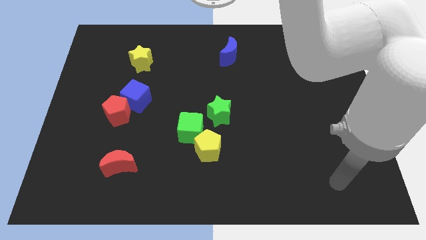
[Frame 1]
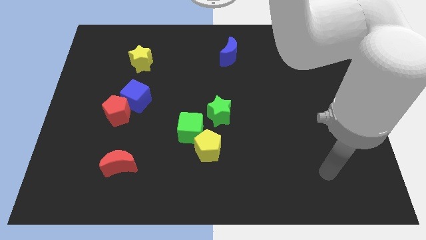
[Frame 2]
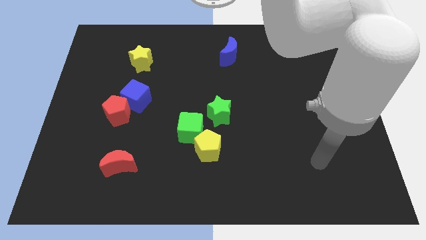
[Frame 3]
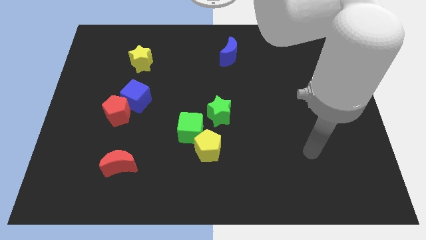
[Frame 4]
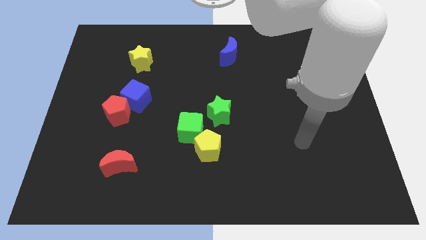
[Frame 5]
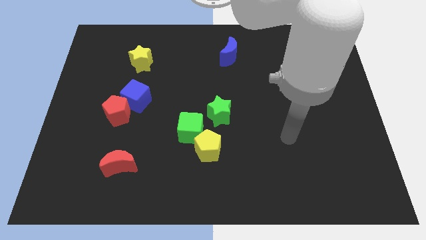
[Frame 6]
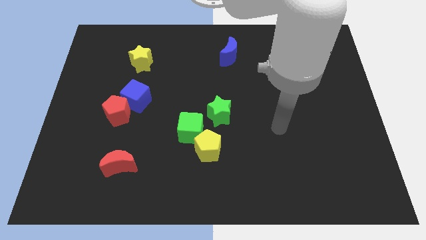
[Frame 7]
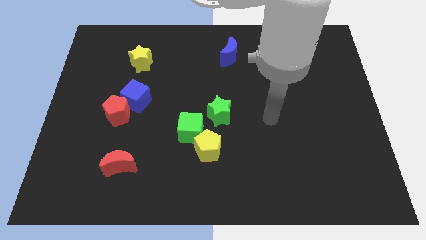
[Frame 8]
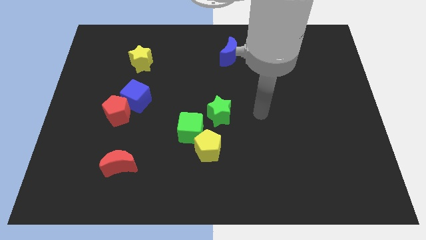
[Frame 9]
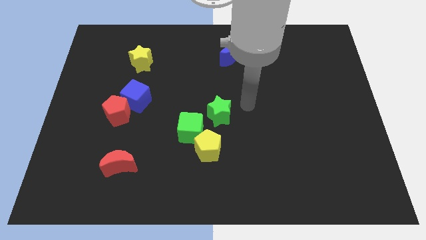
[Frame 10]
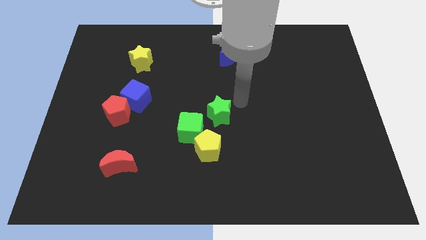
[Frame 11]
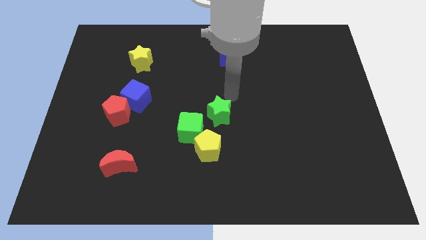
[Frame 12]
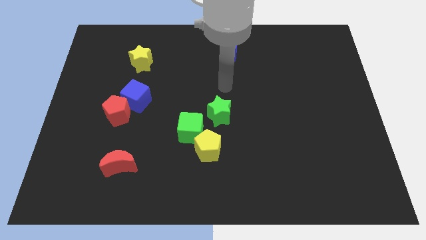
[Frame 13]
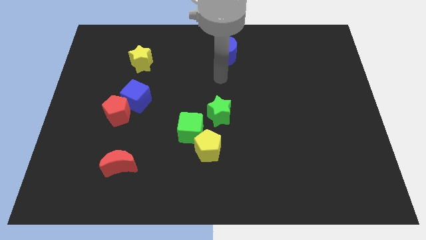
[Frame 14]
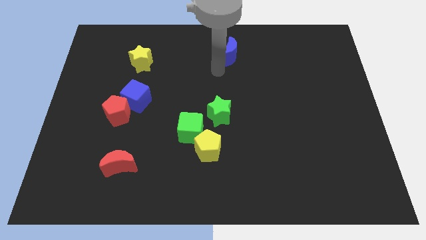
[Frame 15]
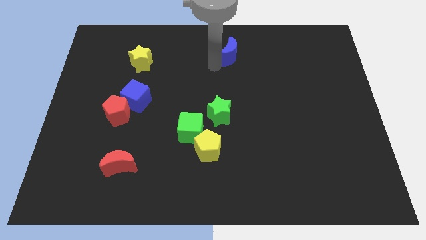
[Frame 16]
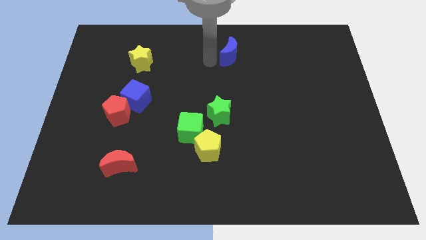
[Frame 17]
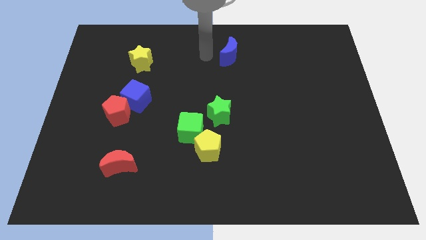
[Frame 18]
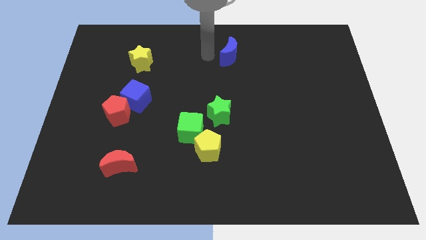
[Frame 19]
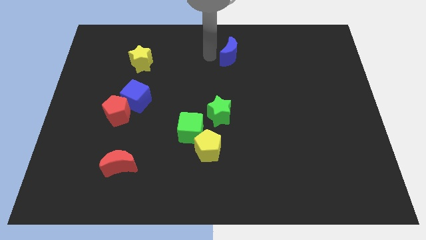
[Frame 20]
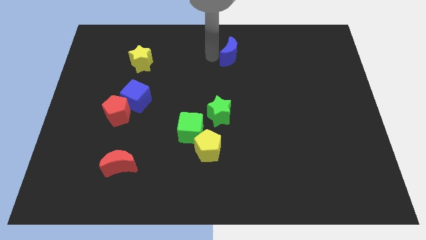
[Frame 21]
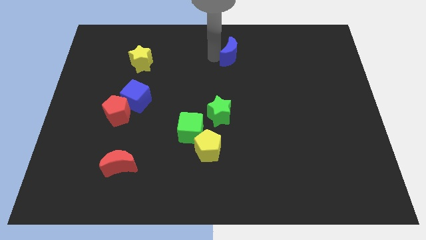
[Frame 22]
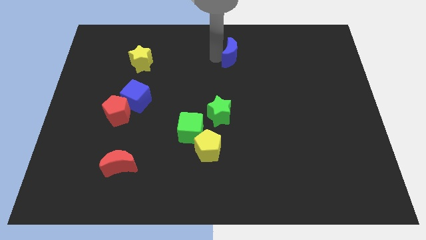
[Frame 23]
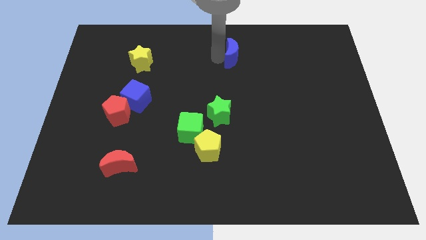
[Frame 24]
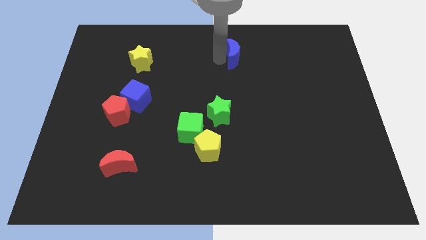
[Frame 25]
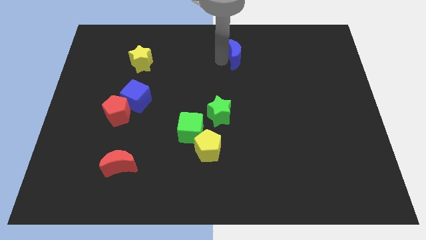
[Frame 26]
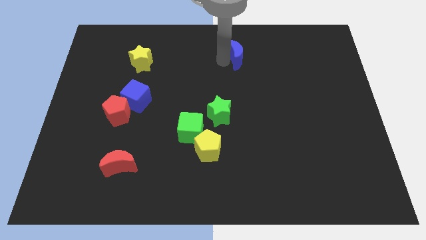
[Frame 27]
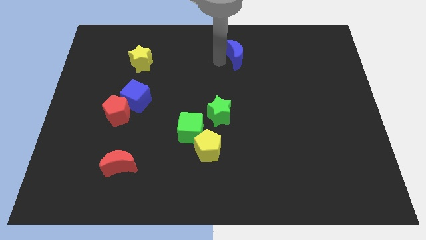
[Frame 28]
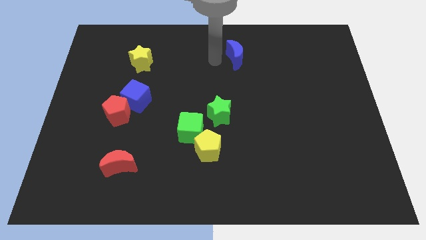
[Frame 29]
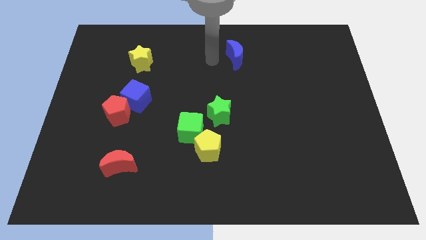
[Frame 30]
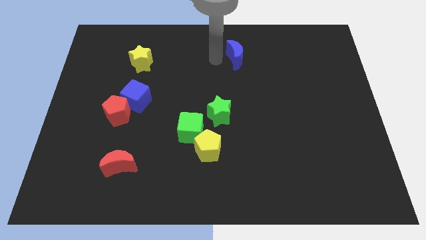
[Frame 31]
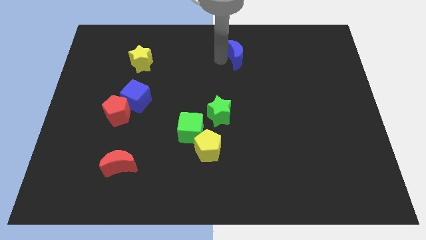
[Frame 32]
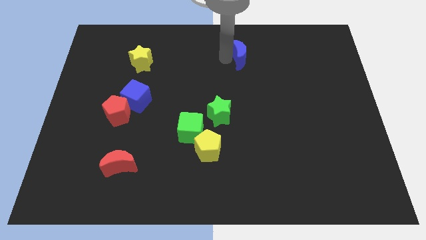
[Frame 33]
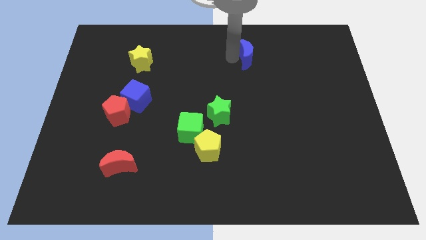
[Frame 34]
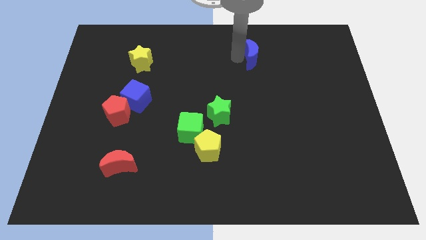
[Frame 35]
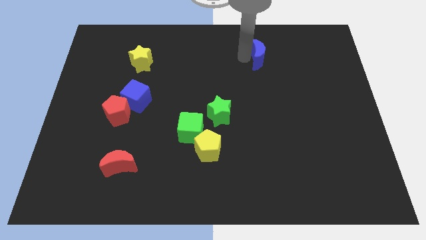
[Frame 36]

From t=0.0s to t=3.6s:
slightly slide the blue moon to the right

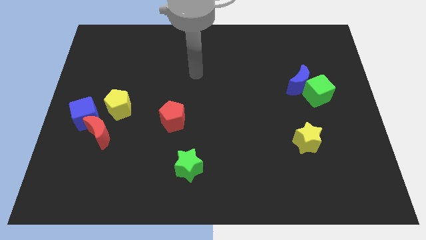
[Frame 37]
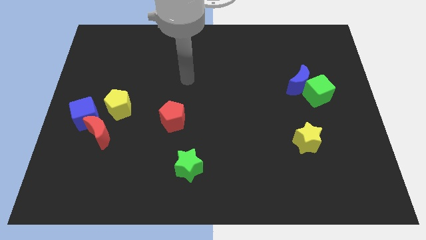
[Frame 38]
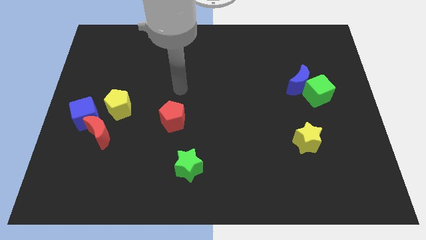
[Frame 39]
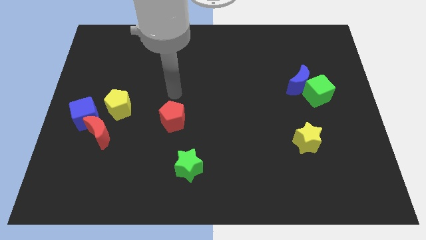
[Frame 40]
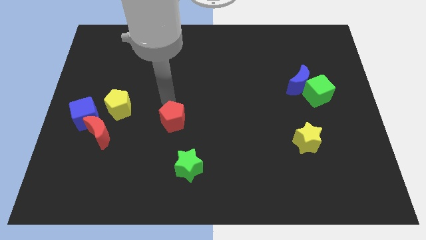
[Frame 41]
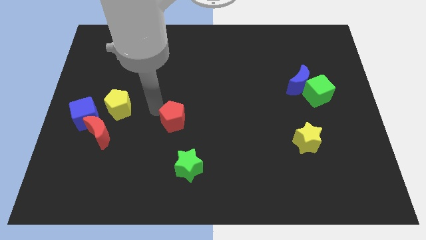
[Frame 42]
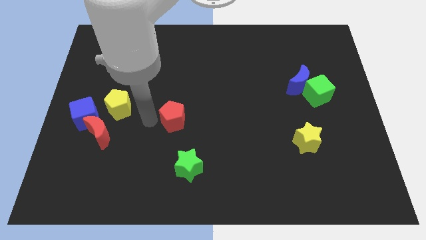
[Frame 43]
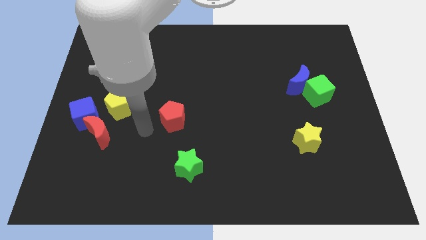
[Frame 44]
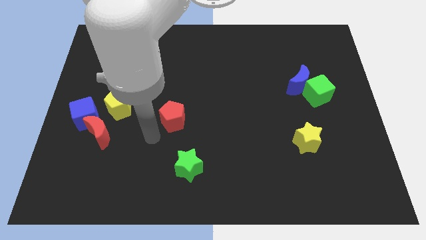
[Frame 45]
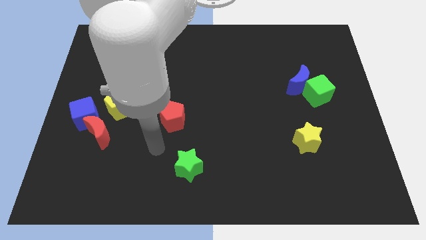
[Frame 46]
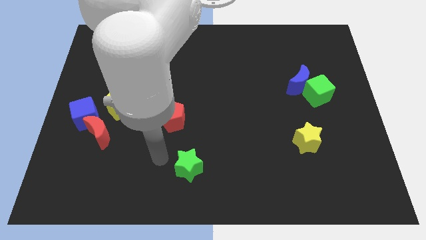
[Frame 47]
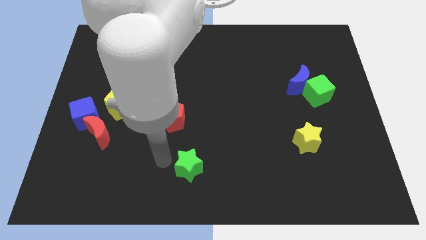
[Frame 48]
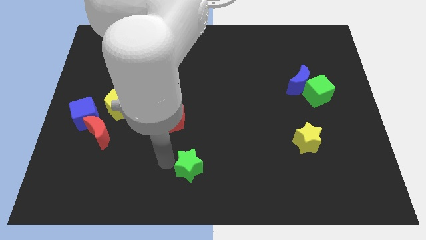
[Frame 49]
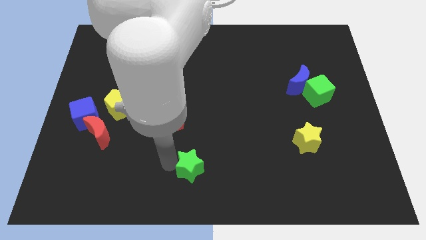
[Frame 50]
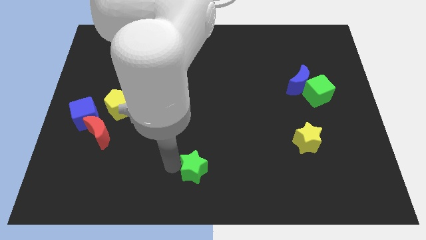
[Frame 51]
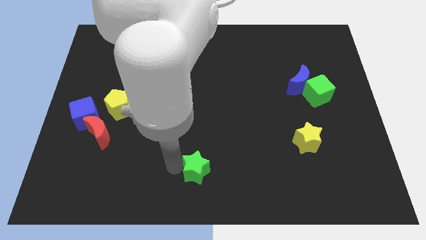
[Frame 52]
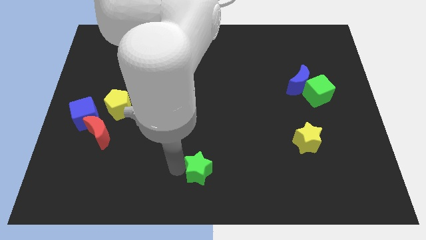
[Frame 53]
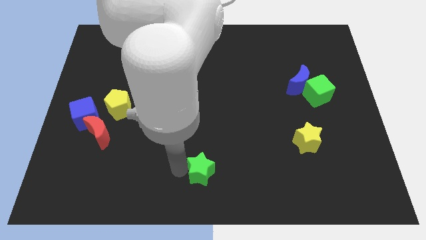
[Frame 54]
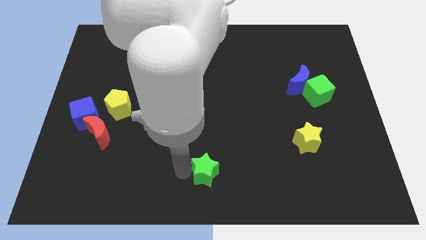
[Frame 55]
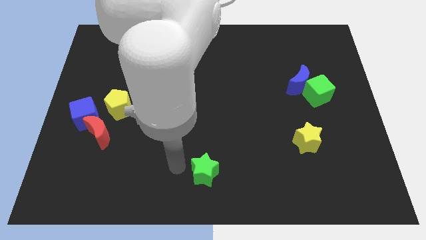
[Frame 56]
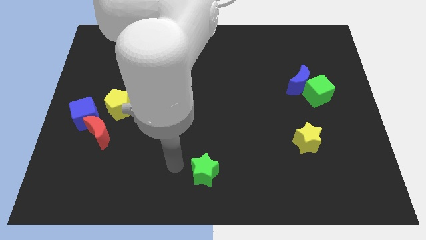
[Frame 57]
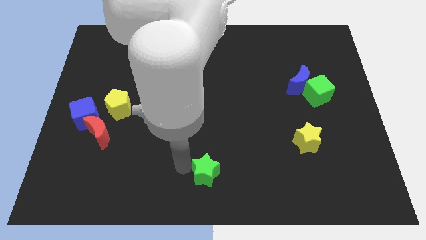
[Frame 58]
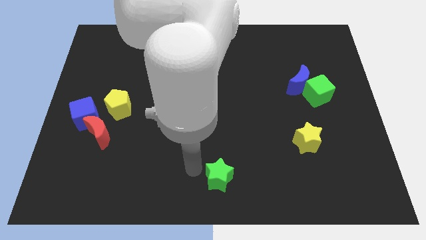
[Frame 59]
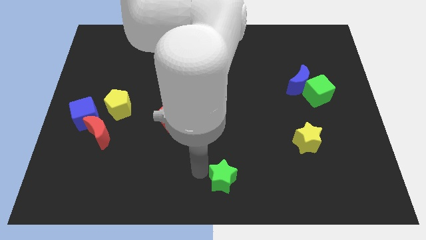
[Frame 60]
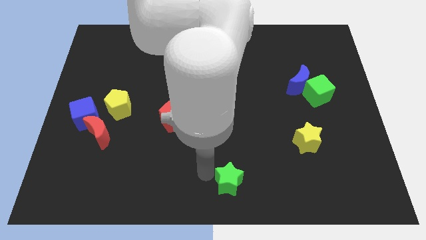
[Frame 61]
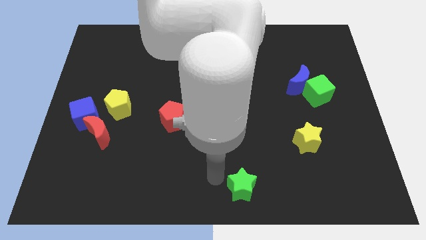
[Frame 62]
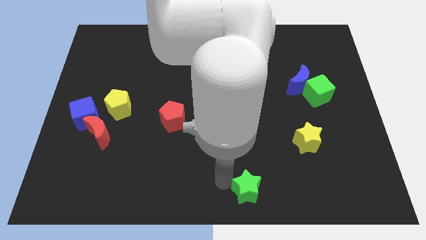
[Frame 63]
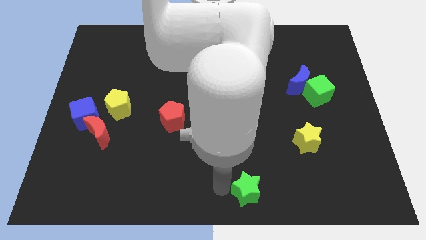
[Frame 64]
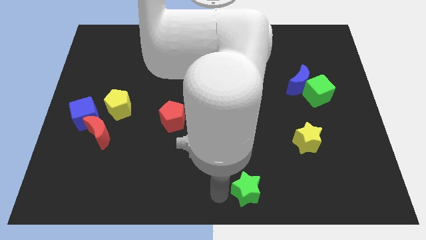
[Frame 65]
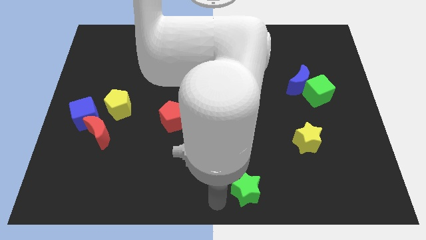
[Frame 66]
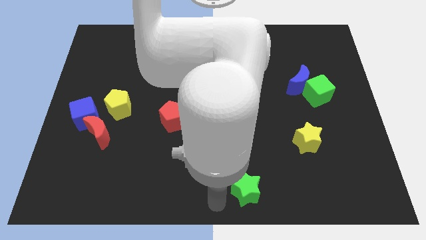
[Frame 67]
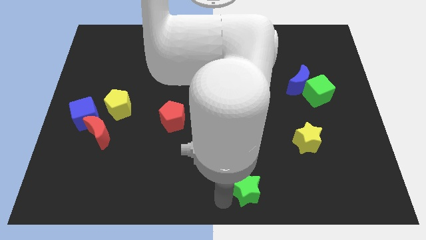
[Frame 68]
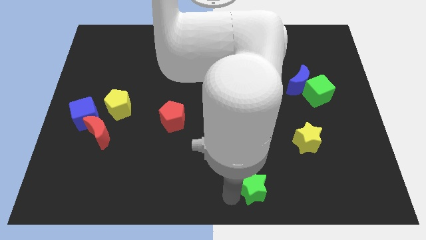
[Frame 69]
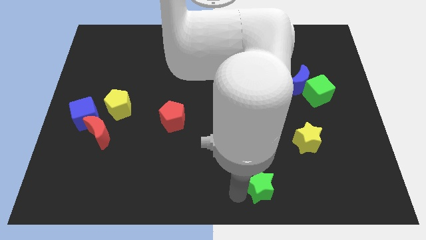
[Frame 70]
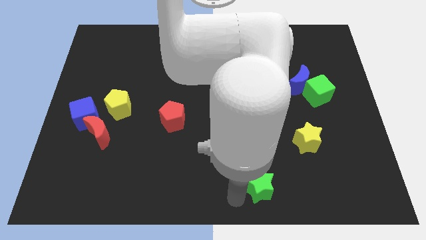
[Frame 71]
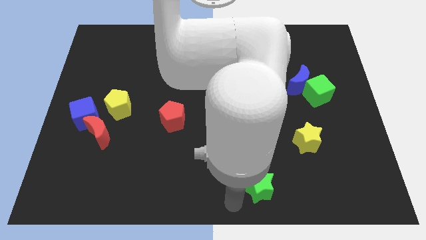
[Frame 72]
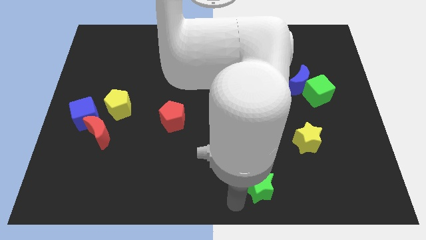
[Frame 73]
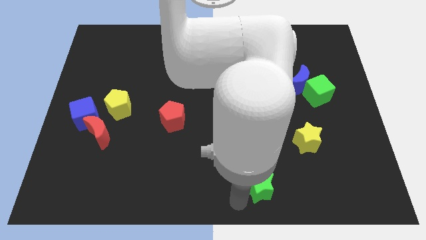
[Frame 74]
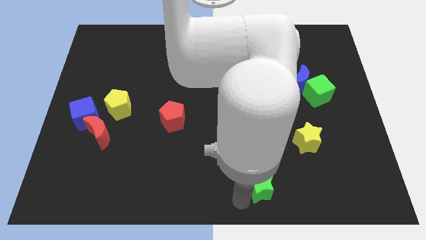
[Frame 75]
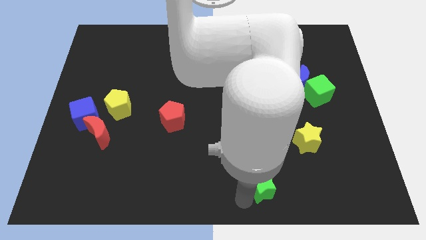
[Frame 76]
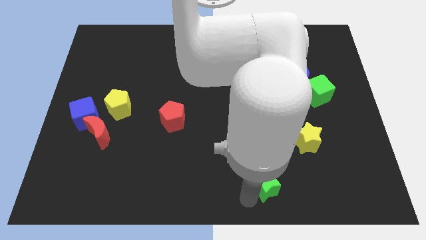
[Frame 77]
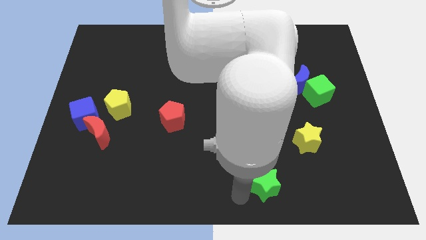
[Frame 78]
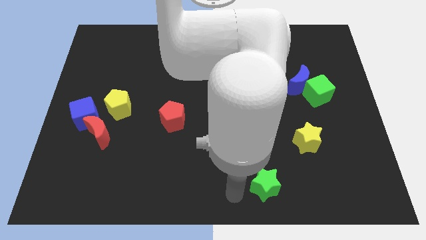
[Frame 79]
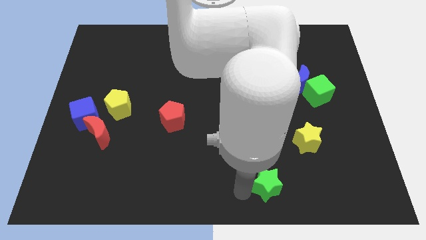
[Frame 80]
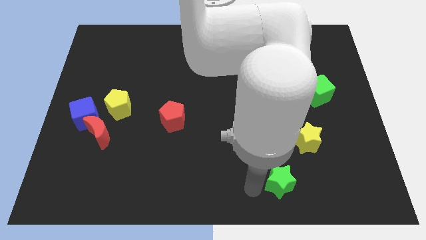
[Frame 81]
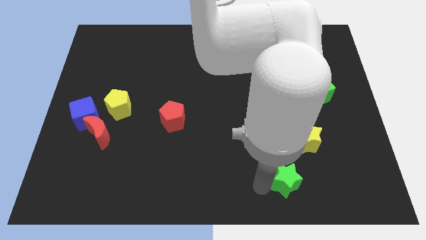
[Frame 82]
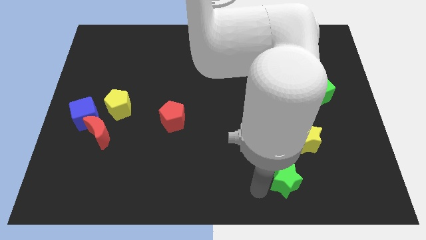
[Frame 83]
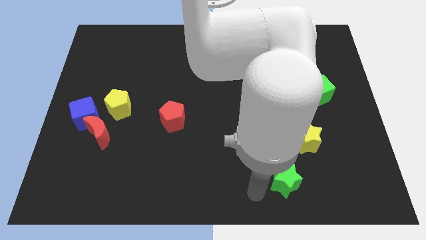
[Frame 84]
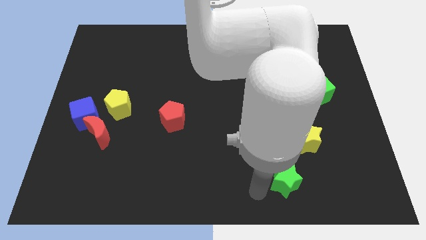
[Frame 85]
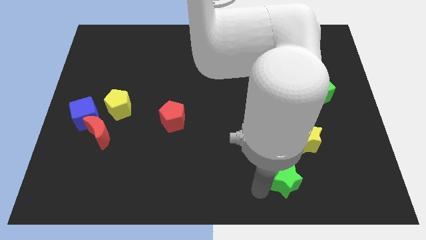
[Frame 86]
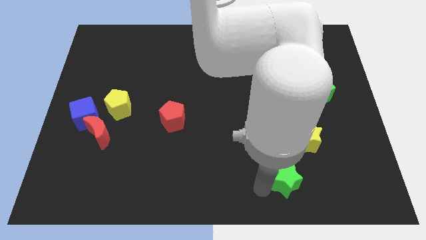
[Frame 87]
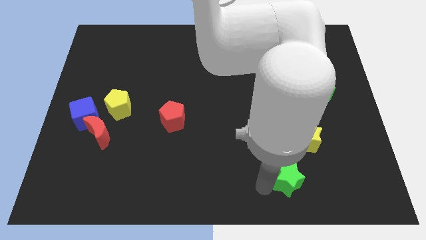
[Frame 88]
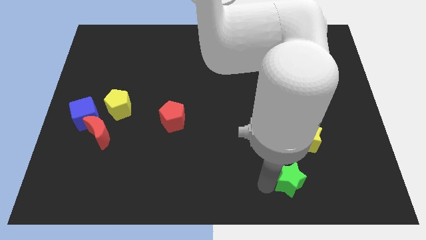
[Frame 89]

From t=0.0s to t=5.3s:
push the green star to the right
